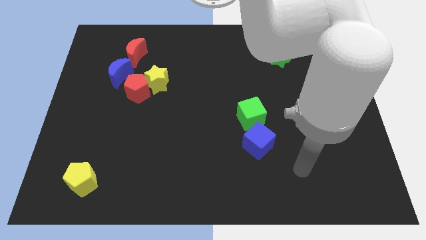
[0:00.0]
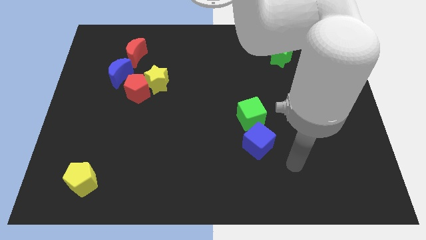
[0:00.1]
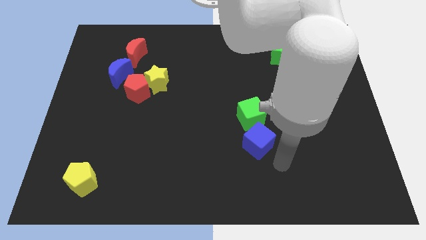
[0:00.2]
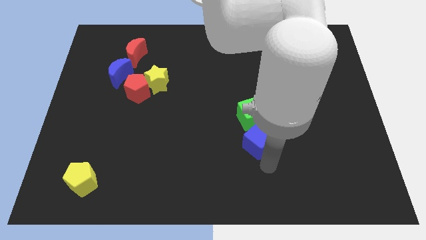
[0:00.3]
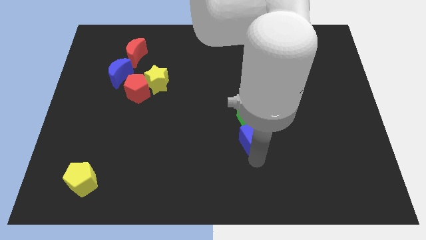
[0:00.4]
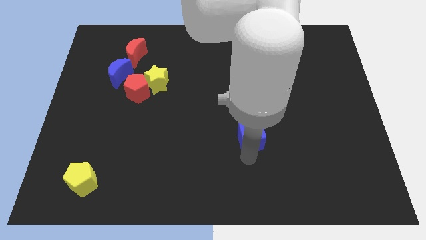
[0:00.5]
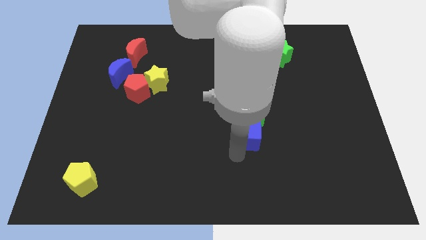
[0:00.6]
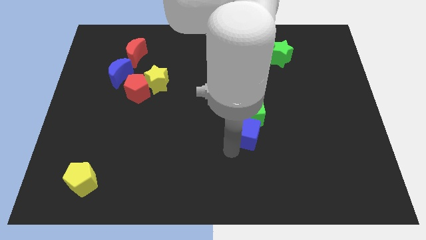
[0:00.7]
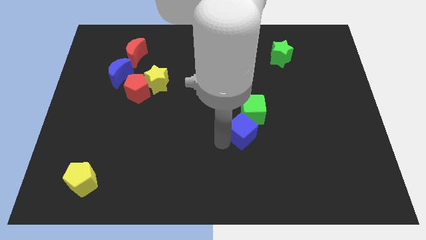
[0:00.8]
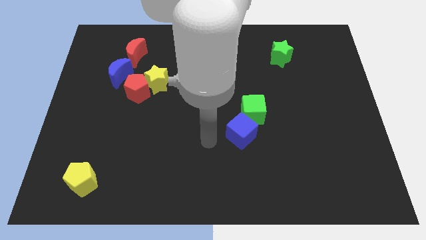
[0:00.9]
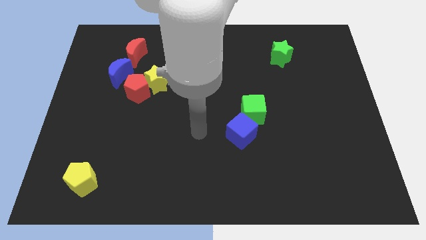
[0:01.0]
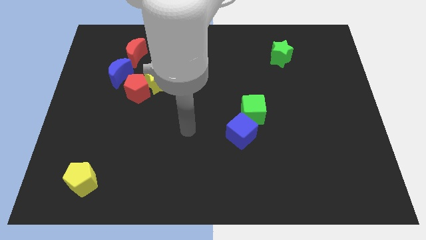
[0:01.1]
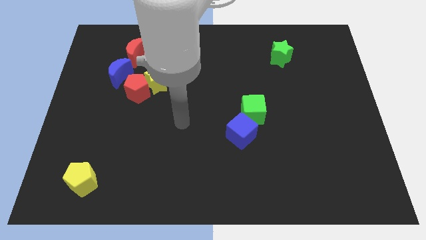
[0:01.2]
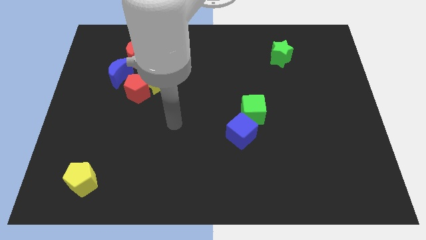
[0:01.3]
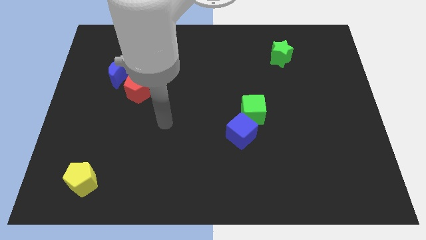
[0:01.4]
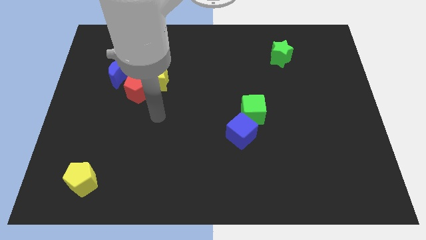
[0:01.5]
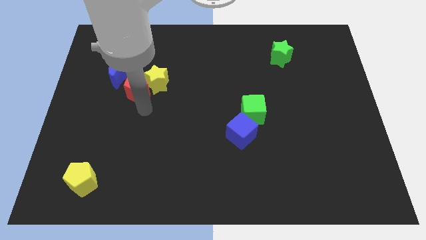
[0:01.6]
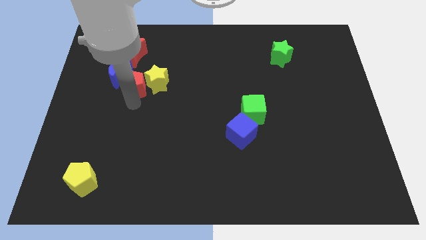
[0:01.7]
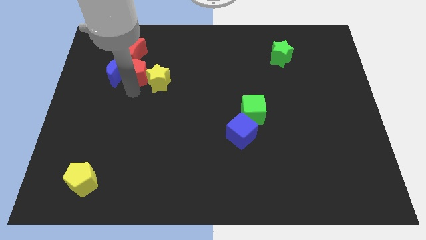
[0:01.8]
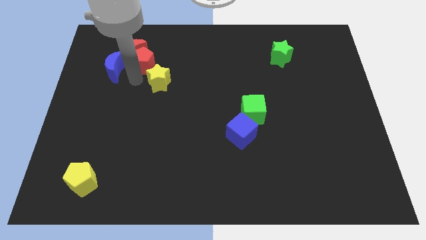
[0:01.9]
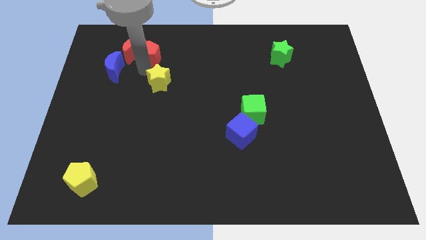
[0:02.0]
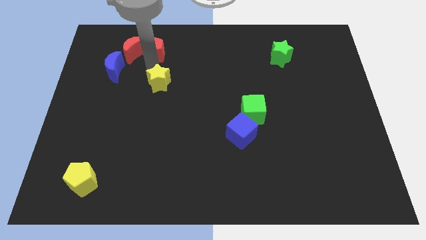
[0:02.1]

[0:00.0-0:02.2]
pull the yellow star apart from the red pentagon

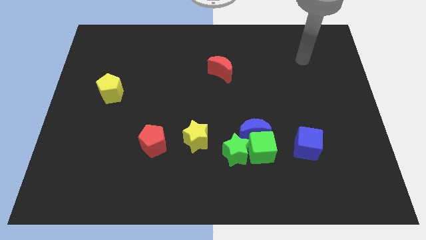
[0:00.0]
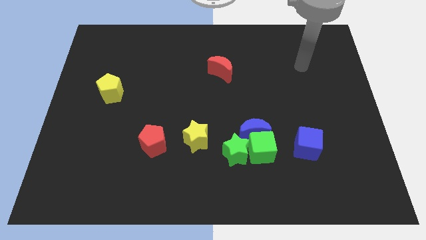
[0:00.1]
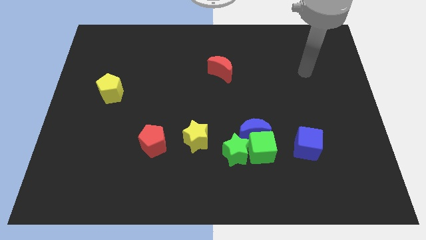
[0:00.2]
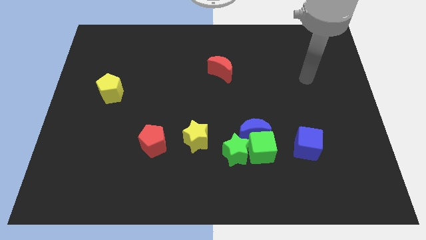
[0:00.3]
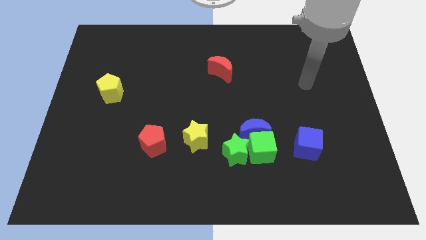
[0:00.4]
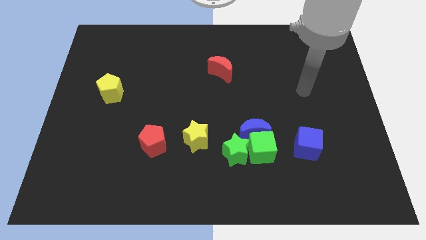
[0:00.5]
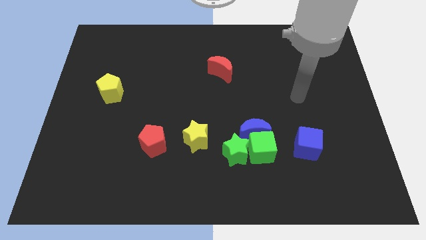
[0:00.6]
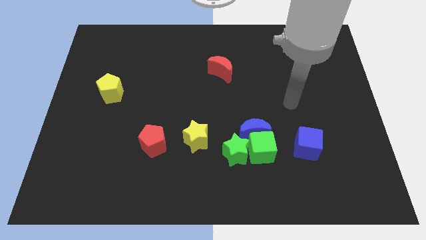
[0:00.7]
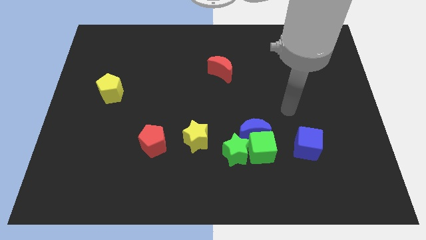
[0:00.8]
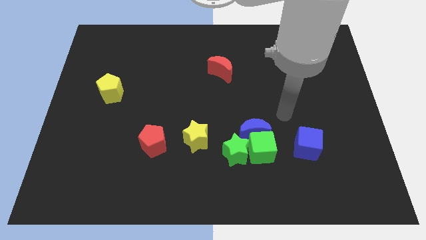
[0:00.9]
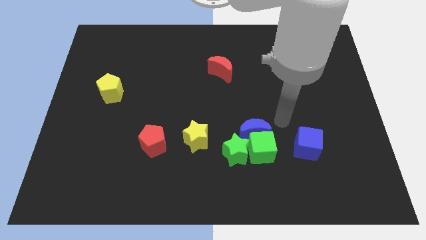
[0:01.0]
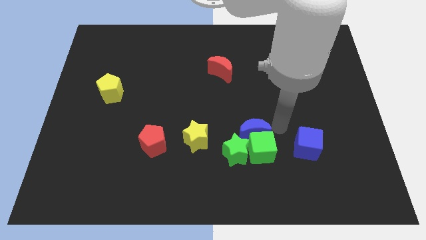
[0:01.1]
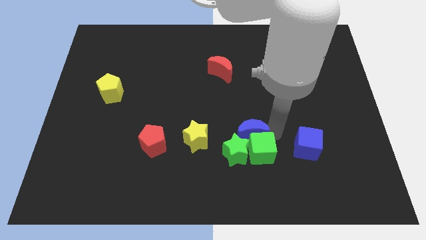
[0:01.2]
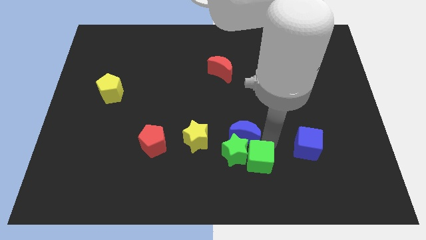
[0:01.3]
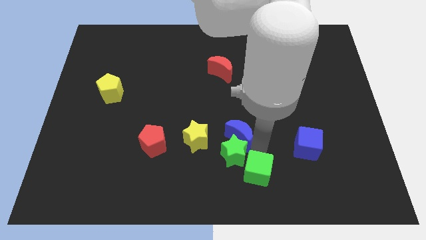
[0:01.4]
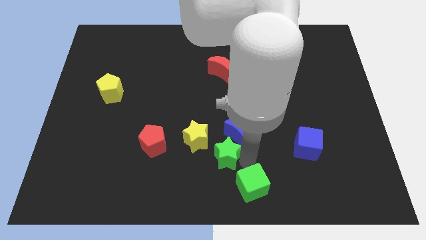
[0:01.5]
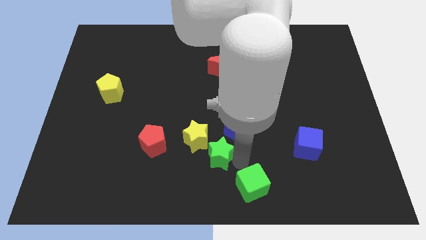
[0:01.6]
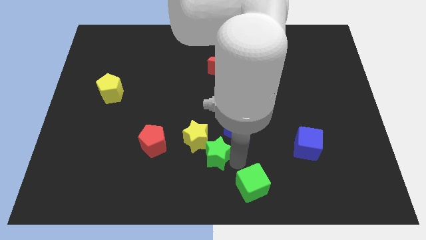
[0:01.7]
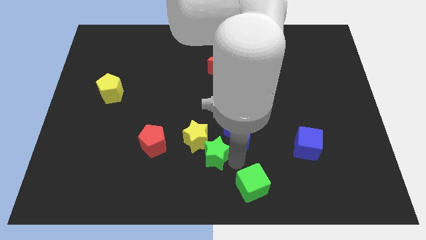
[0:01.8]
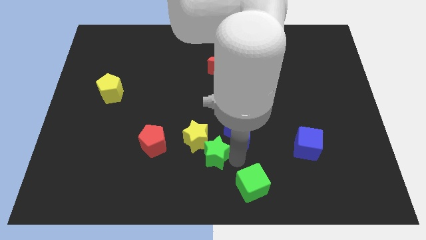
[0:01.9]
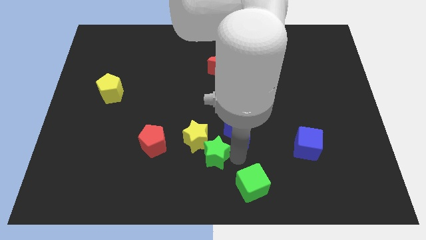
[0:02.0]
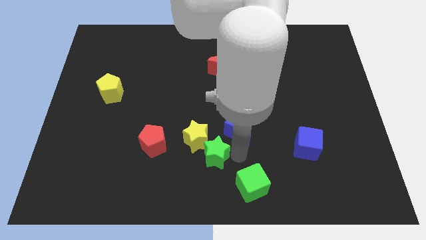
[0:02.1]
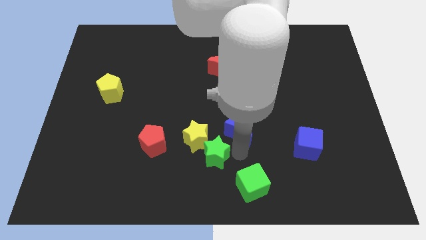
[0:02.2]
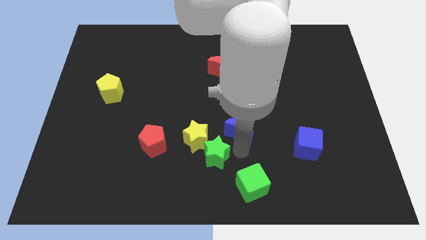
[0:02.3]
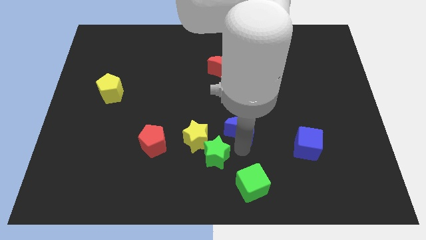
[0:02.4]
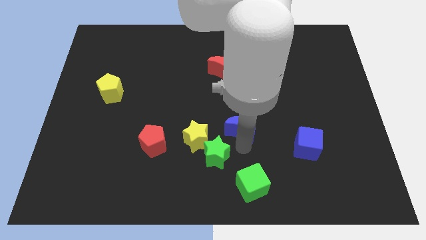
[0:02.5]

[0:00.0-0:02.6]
move the blue moon away from the green cube and green star

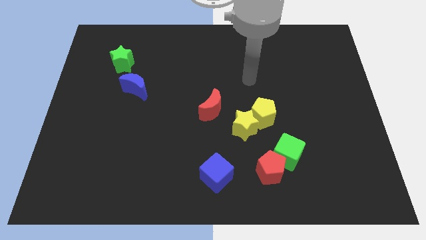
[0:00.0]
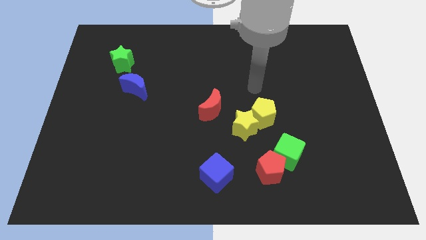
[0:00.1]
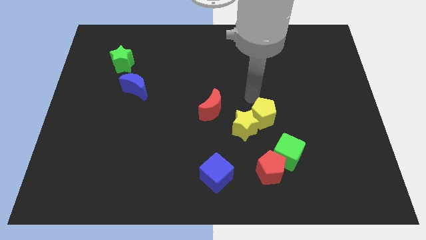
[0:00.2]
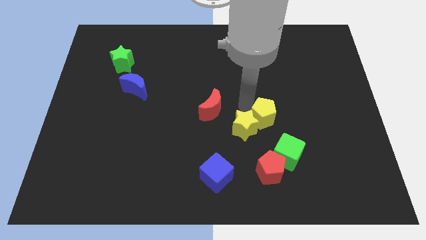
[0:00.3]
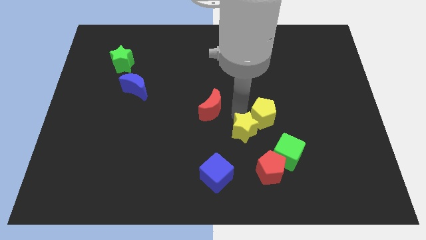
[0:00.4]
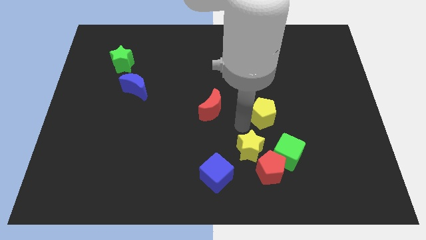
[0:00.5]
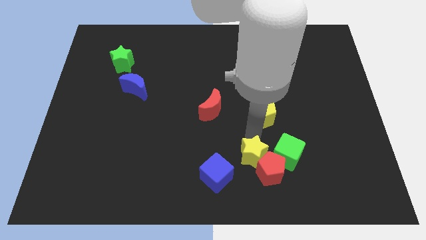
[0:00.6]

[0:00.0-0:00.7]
separate the yellow pentagon from the yellow star

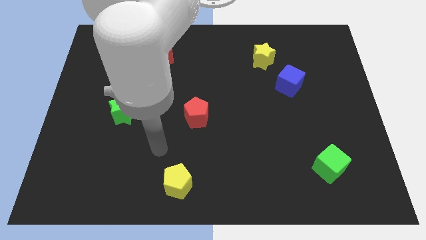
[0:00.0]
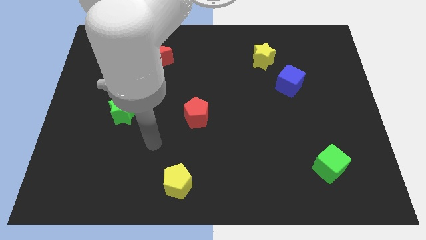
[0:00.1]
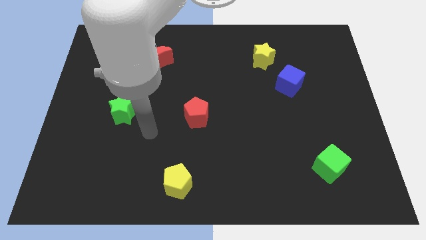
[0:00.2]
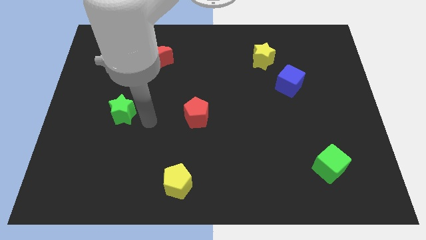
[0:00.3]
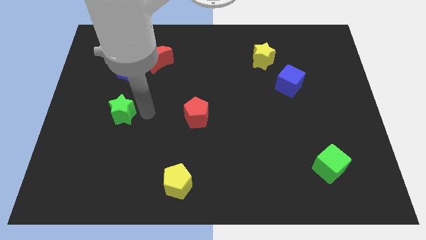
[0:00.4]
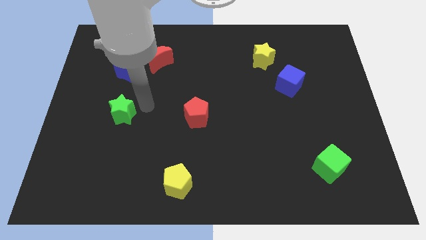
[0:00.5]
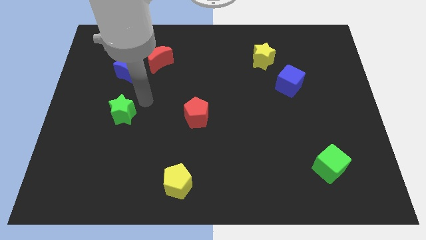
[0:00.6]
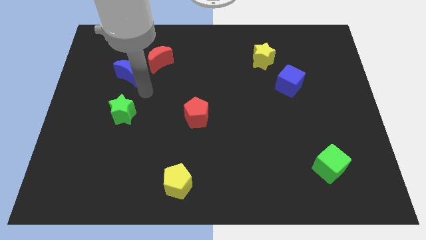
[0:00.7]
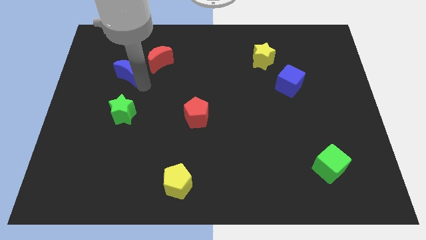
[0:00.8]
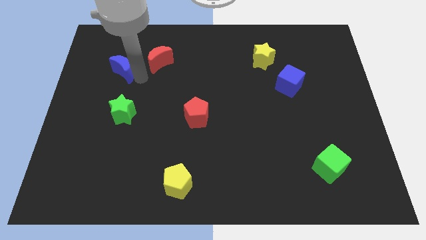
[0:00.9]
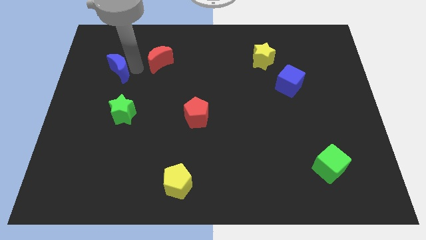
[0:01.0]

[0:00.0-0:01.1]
pull the red moon apart from the blue moon

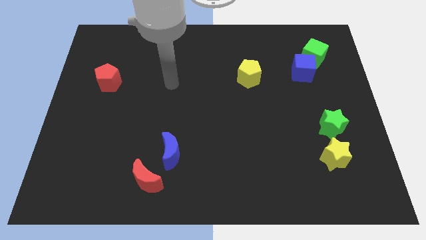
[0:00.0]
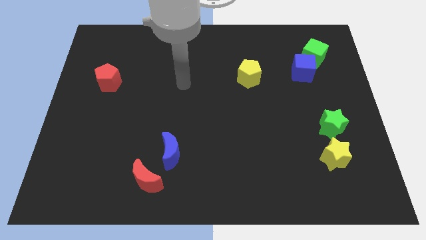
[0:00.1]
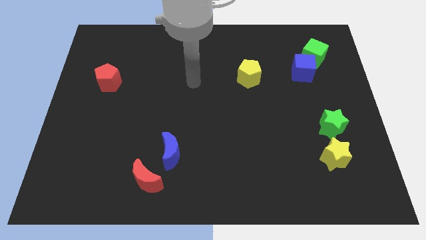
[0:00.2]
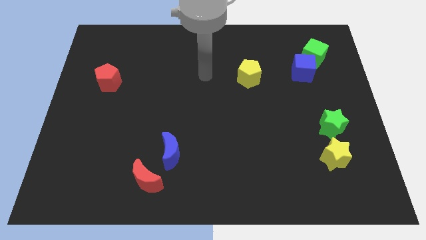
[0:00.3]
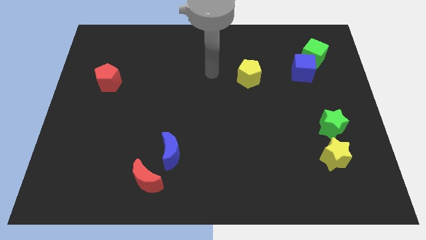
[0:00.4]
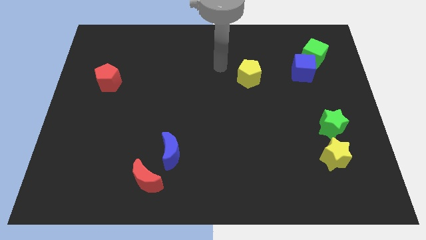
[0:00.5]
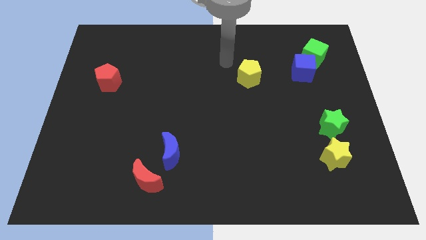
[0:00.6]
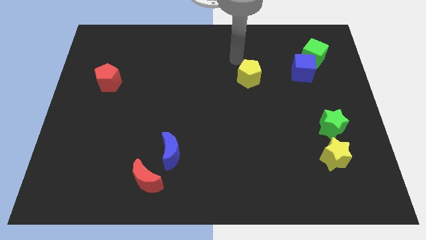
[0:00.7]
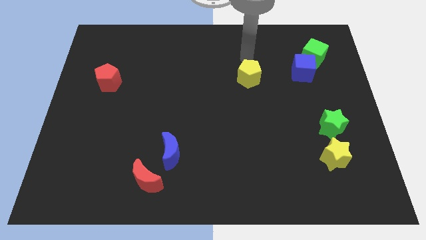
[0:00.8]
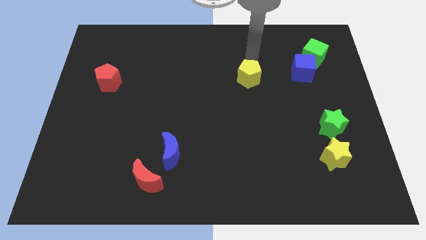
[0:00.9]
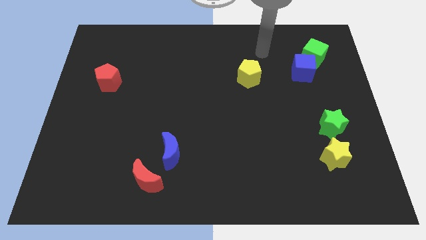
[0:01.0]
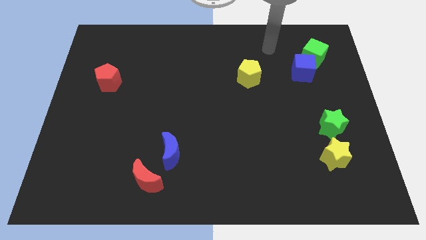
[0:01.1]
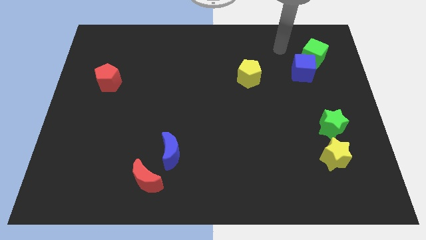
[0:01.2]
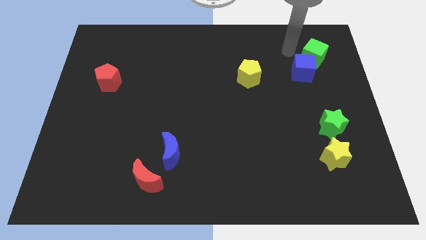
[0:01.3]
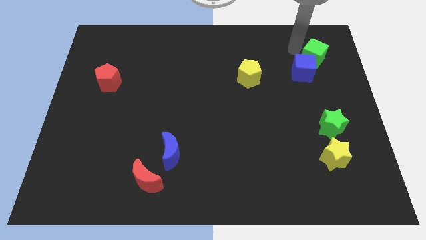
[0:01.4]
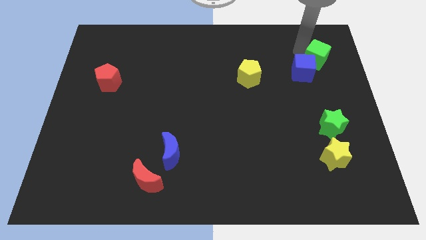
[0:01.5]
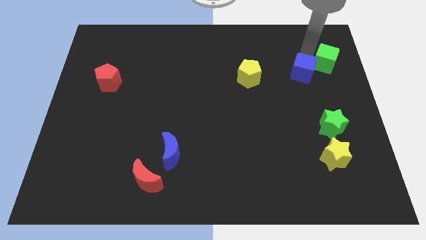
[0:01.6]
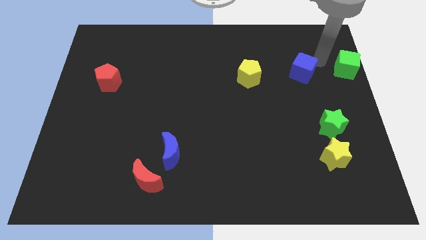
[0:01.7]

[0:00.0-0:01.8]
separate the blue cube from the green cube

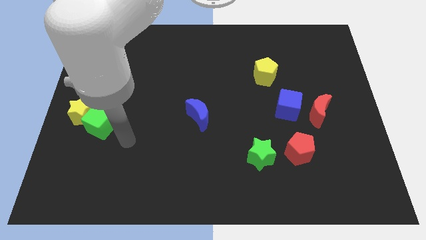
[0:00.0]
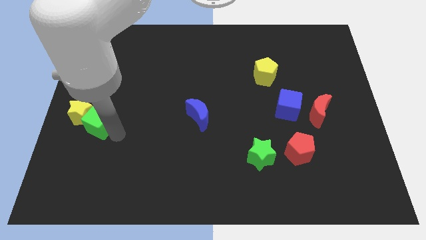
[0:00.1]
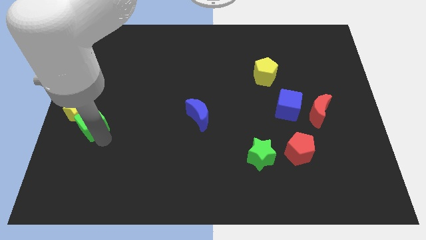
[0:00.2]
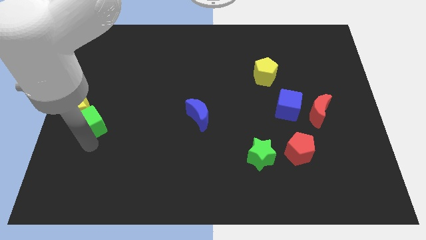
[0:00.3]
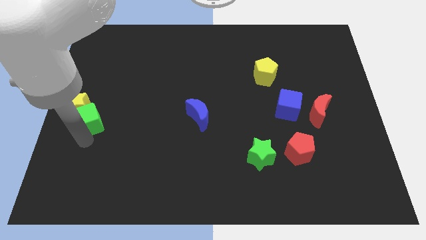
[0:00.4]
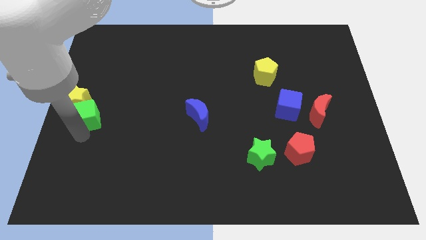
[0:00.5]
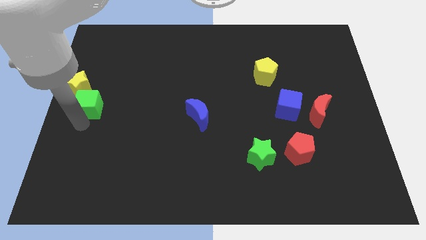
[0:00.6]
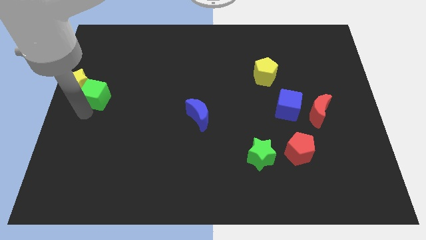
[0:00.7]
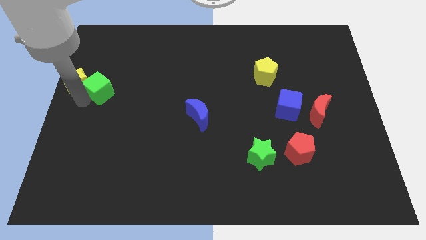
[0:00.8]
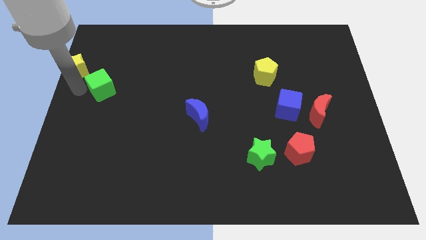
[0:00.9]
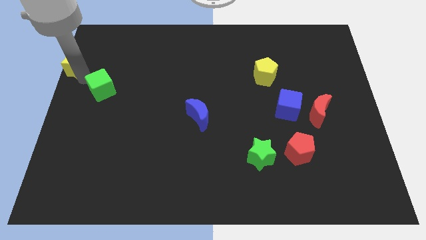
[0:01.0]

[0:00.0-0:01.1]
separate the green cube from the yellow star
